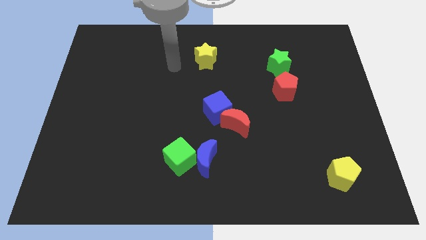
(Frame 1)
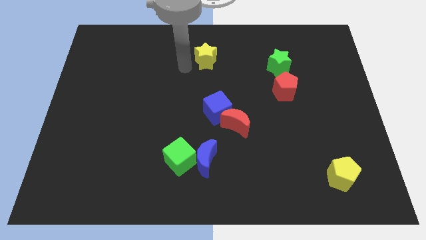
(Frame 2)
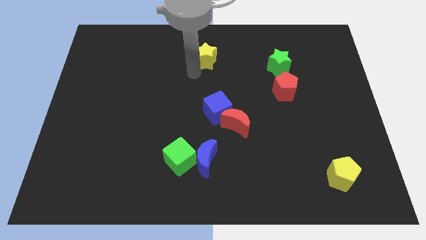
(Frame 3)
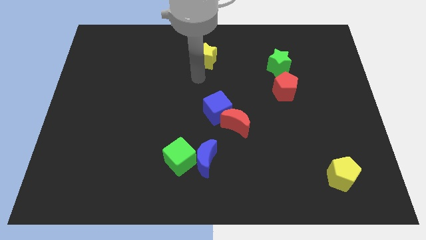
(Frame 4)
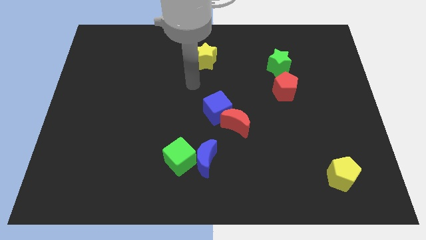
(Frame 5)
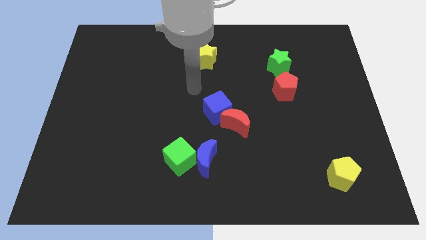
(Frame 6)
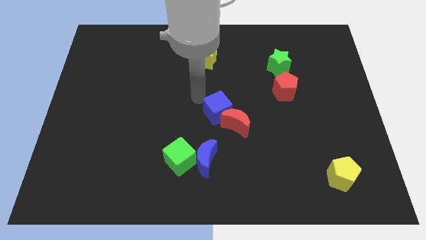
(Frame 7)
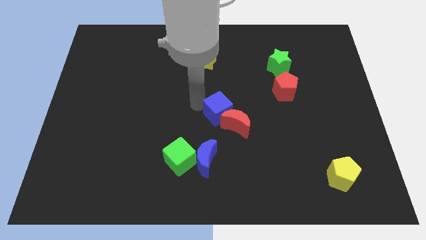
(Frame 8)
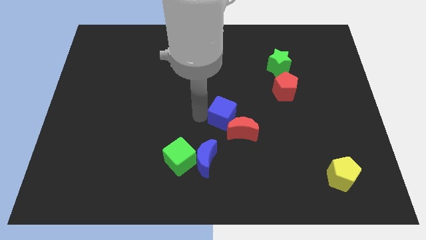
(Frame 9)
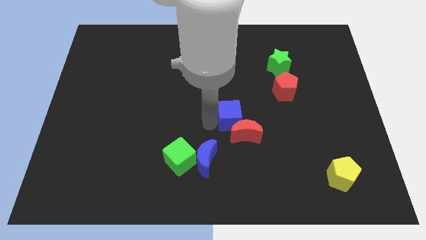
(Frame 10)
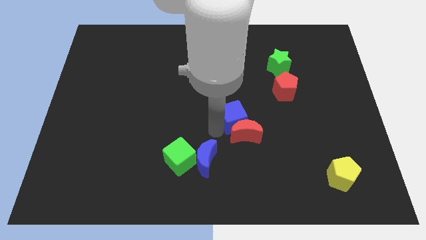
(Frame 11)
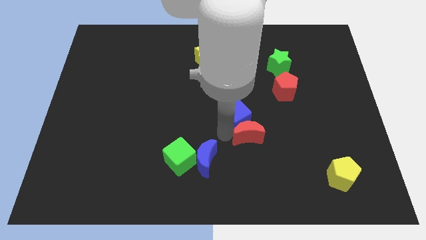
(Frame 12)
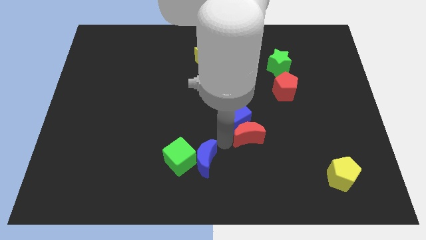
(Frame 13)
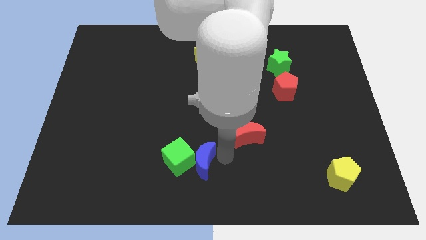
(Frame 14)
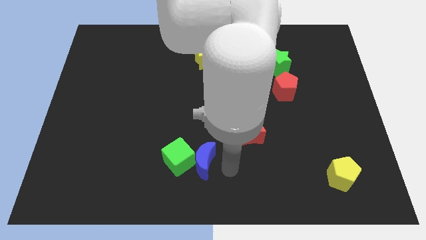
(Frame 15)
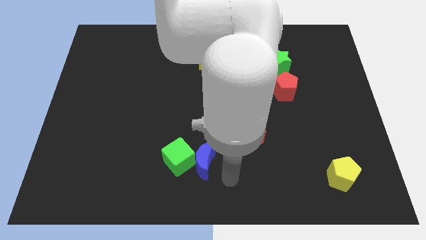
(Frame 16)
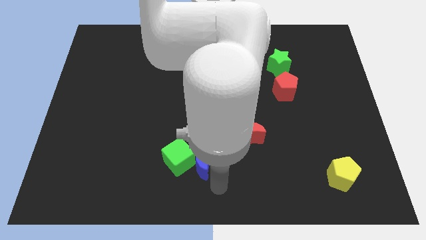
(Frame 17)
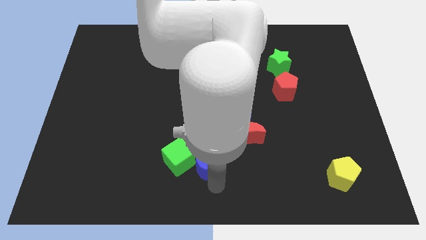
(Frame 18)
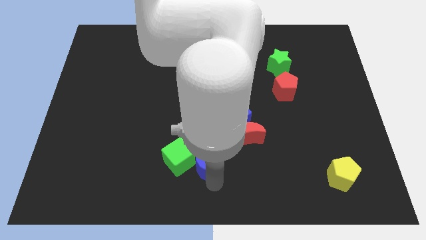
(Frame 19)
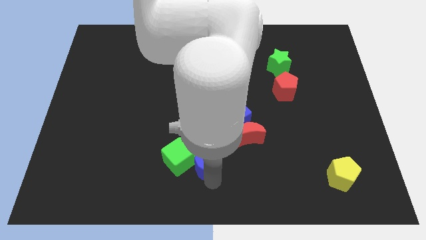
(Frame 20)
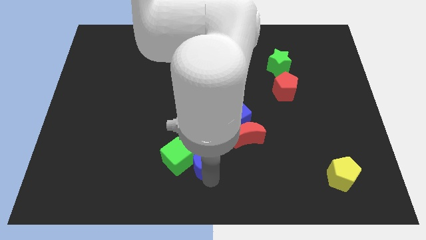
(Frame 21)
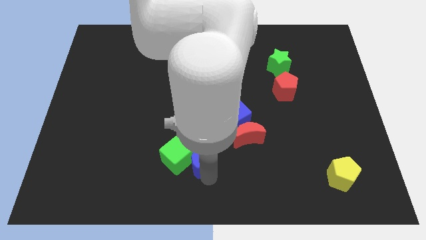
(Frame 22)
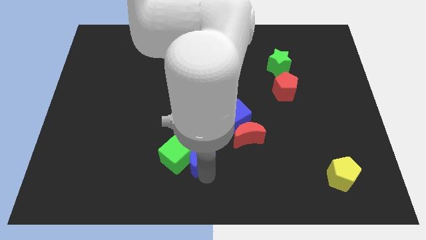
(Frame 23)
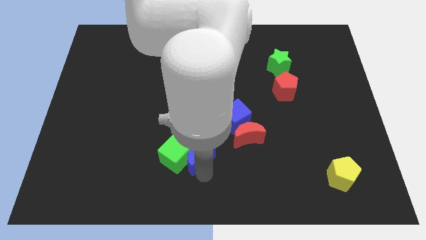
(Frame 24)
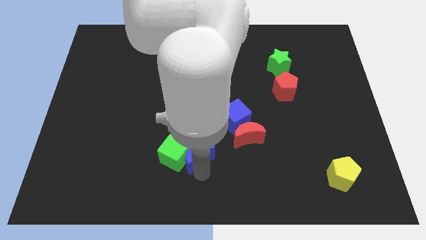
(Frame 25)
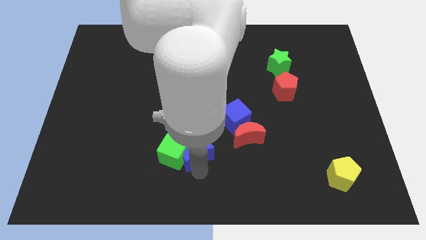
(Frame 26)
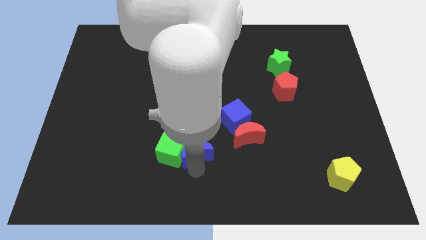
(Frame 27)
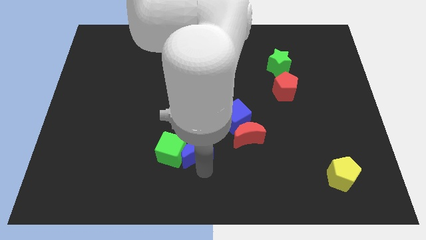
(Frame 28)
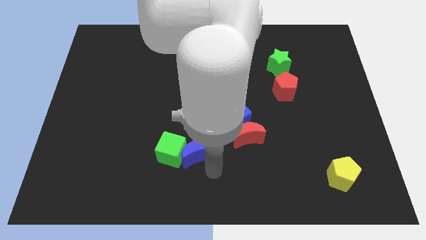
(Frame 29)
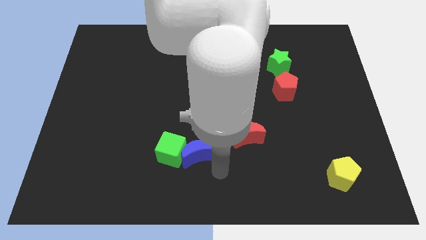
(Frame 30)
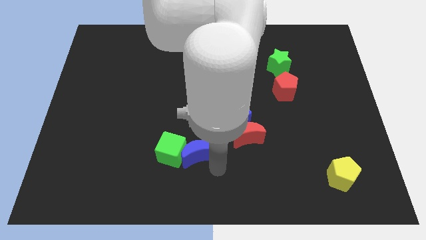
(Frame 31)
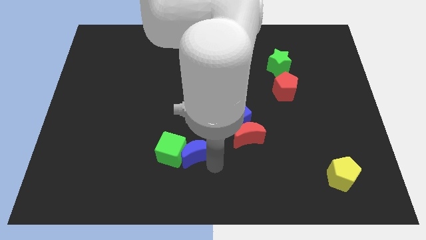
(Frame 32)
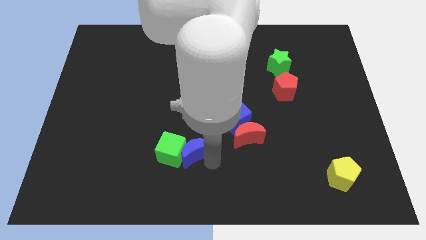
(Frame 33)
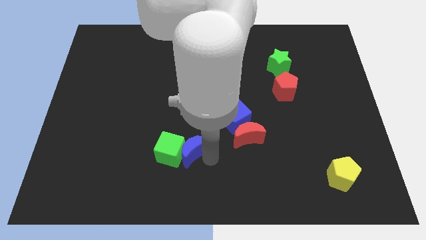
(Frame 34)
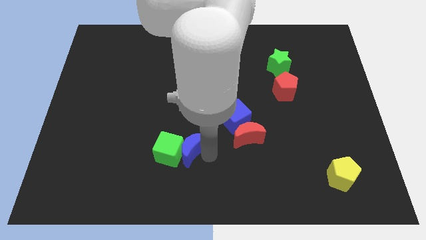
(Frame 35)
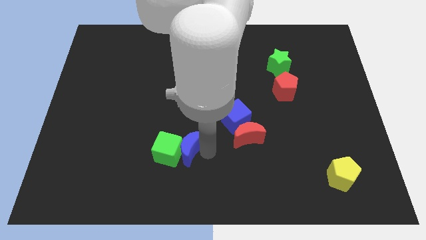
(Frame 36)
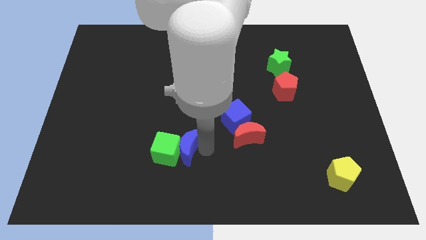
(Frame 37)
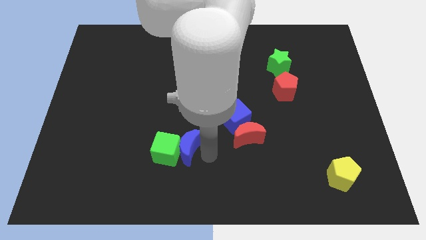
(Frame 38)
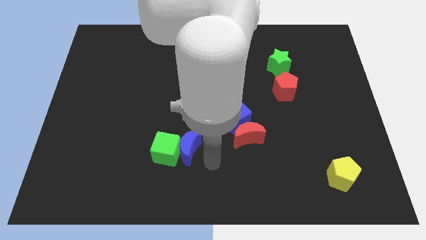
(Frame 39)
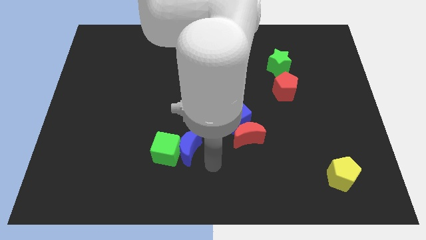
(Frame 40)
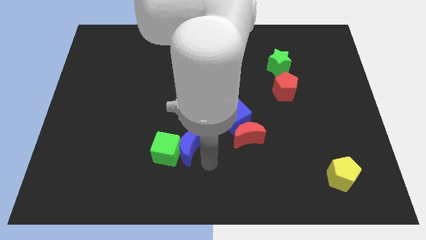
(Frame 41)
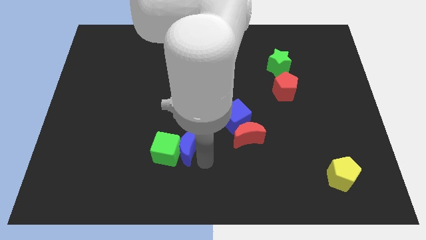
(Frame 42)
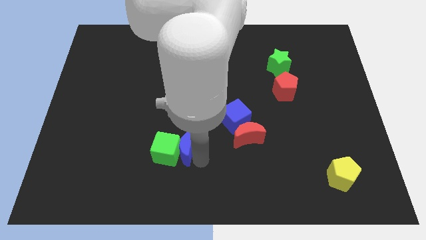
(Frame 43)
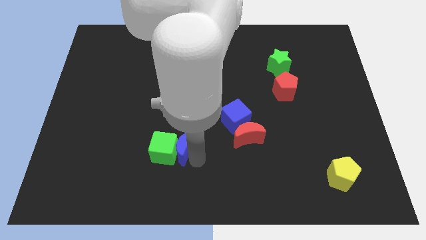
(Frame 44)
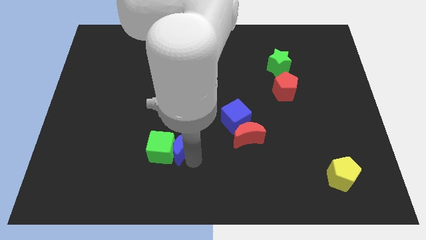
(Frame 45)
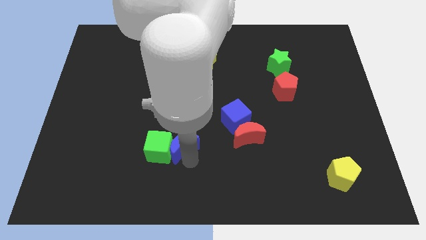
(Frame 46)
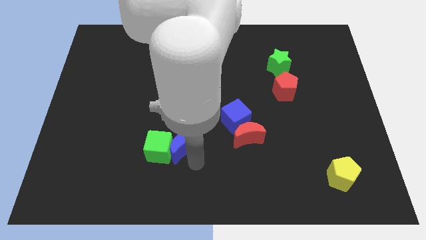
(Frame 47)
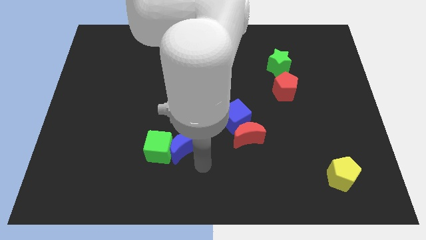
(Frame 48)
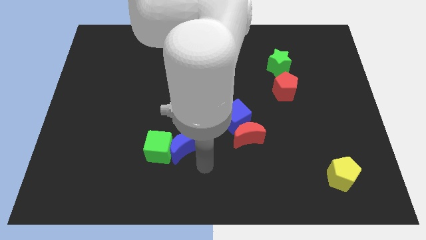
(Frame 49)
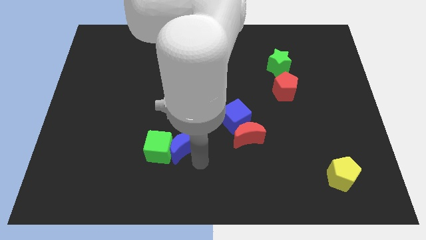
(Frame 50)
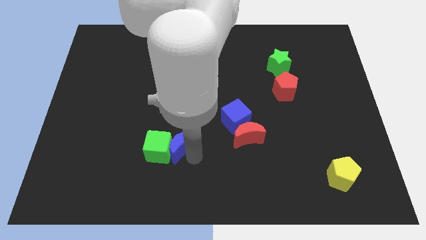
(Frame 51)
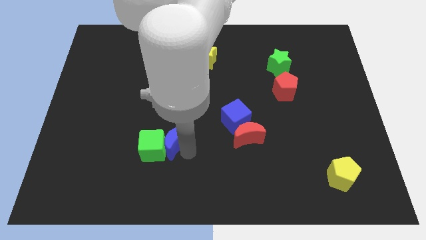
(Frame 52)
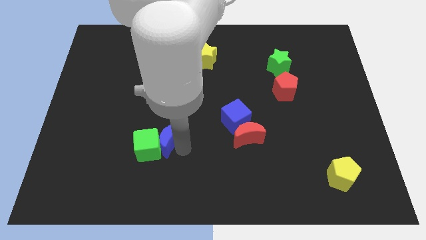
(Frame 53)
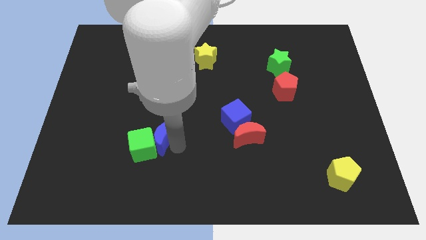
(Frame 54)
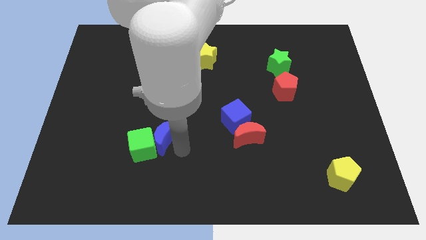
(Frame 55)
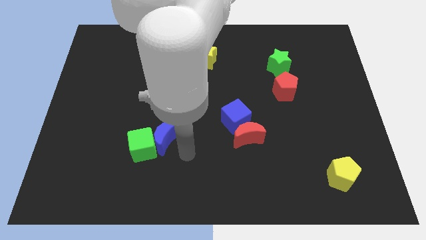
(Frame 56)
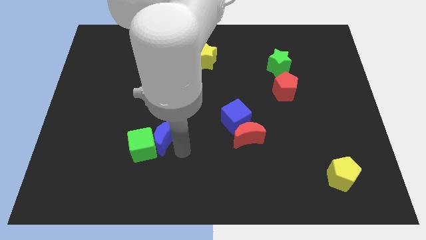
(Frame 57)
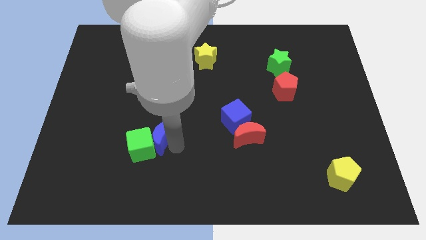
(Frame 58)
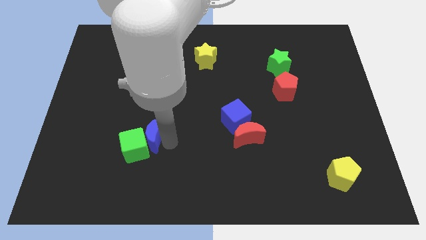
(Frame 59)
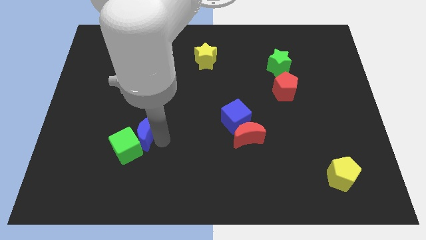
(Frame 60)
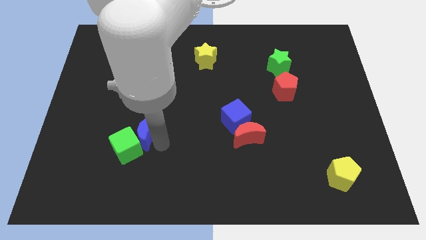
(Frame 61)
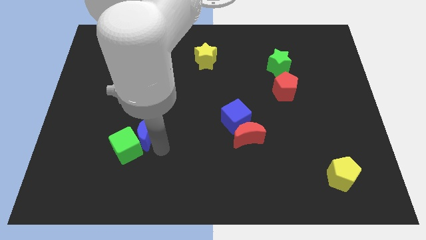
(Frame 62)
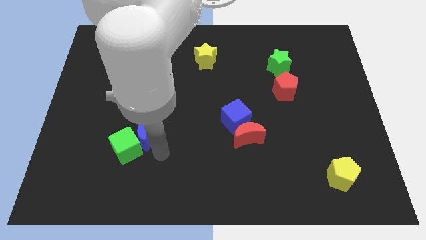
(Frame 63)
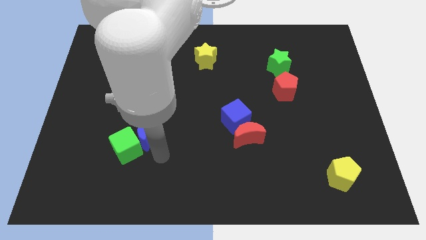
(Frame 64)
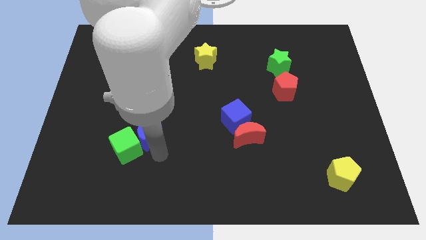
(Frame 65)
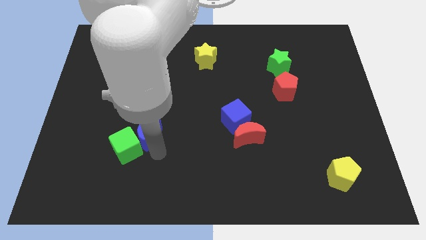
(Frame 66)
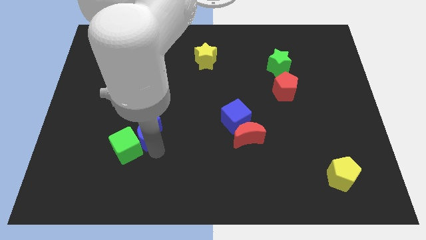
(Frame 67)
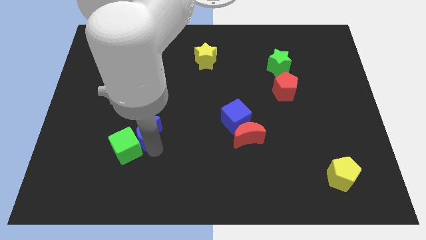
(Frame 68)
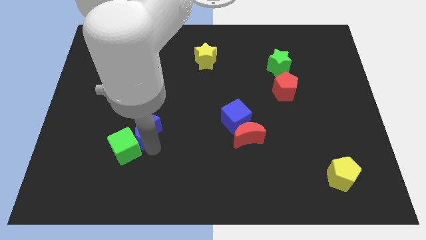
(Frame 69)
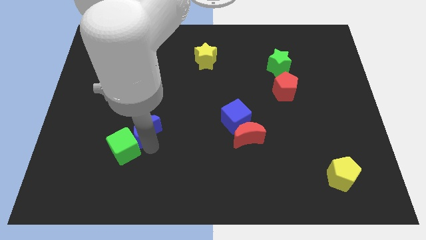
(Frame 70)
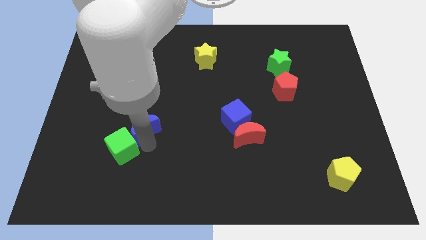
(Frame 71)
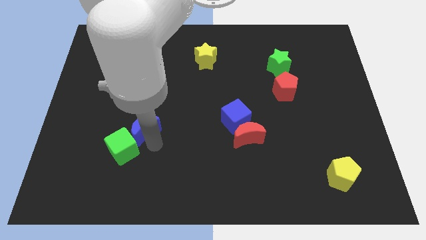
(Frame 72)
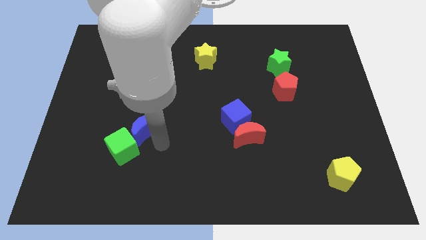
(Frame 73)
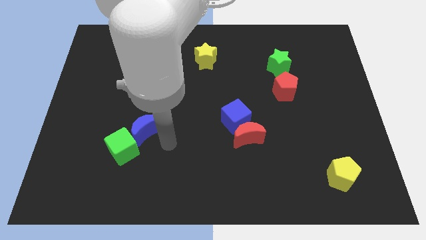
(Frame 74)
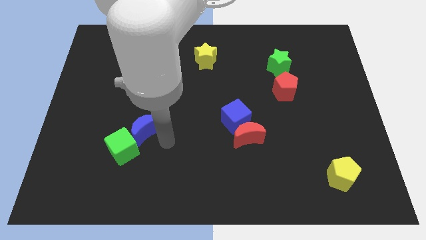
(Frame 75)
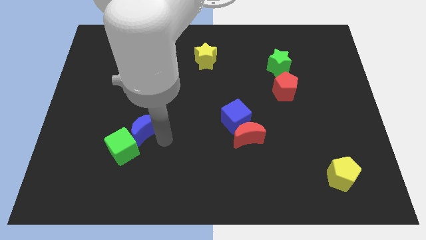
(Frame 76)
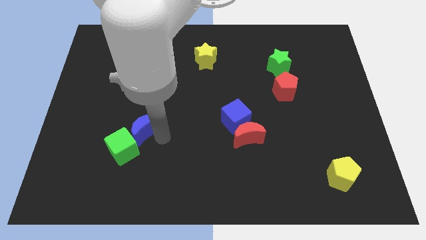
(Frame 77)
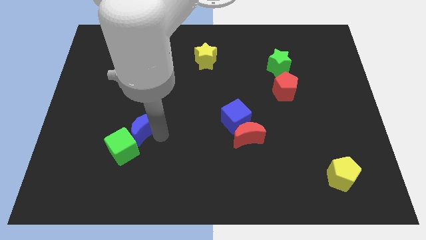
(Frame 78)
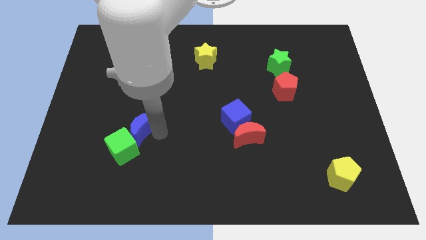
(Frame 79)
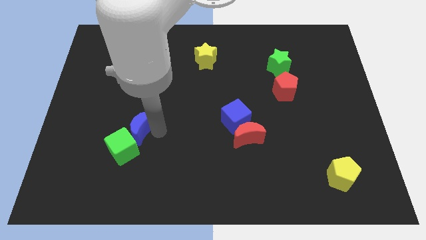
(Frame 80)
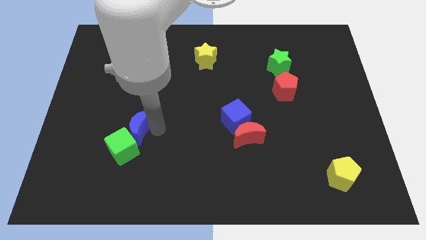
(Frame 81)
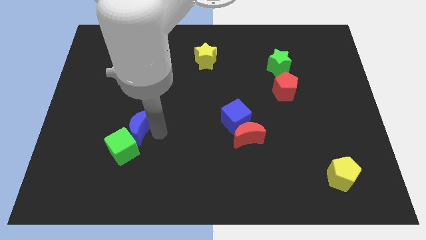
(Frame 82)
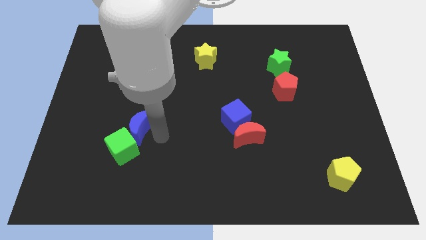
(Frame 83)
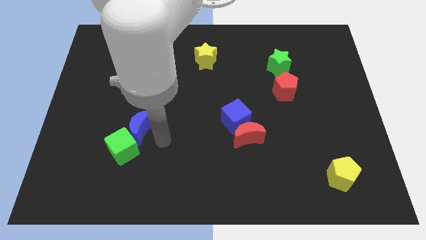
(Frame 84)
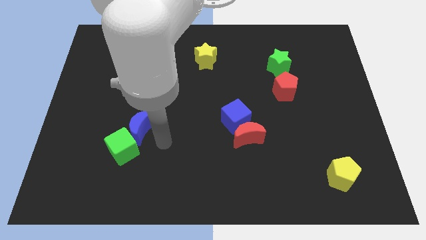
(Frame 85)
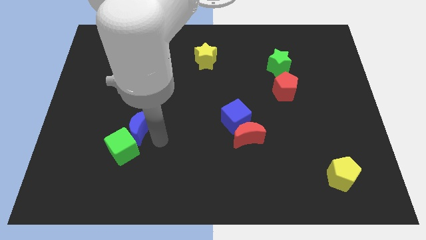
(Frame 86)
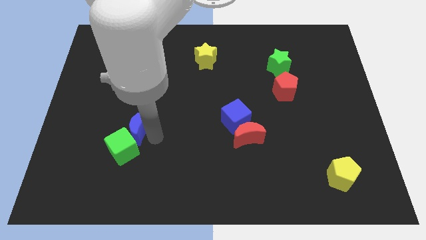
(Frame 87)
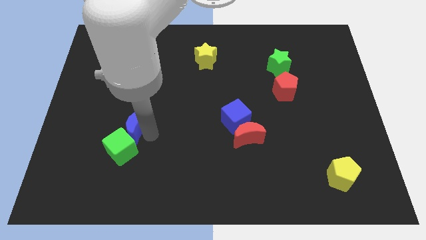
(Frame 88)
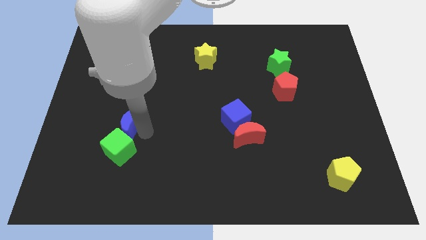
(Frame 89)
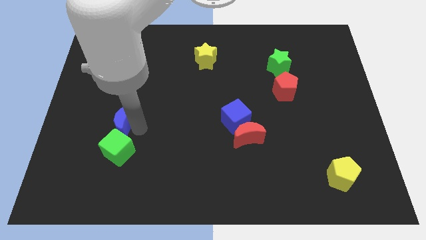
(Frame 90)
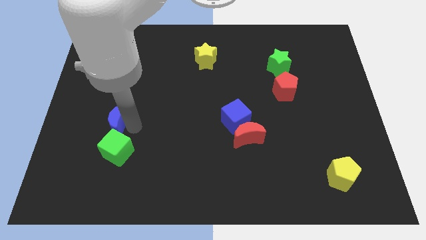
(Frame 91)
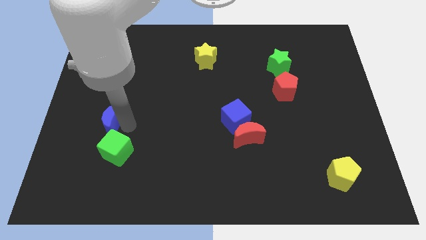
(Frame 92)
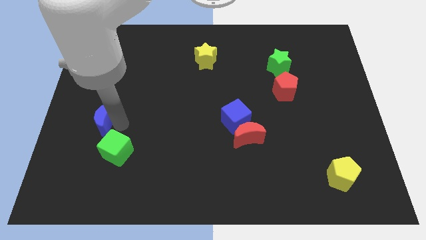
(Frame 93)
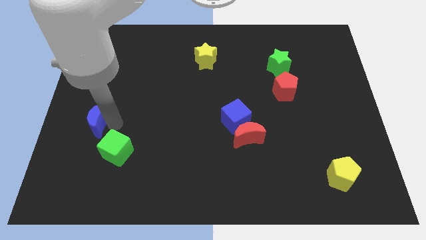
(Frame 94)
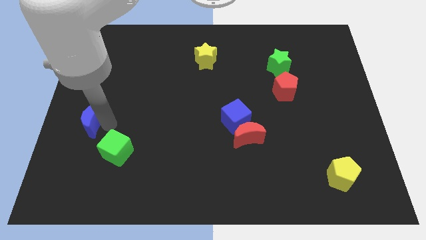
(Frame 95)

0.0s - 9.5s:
slide the blue moon to the center left
